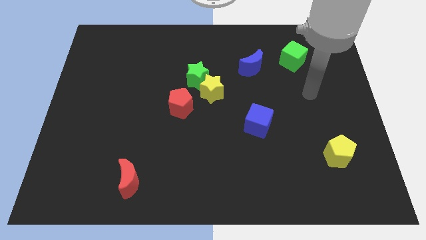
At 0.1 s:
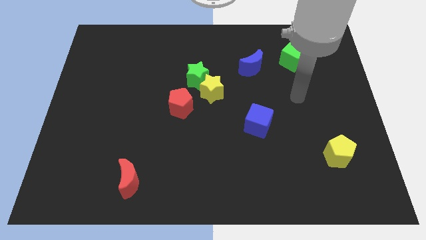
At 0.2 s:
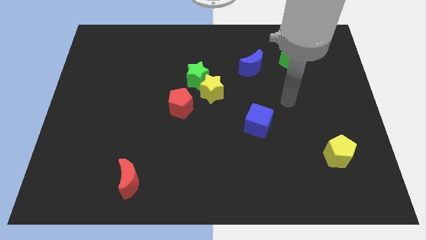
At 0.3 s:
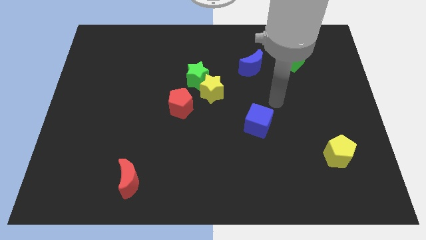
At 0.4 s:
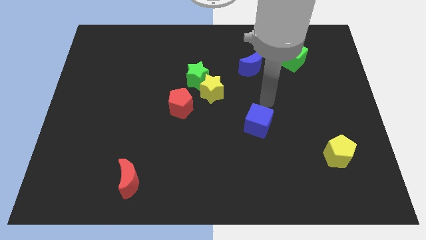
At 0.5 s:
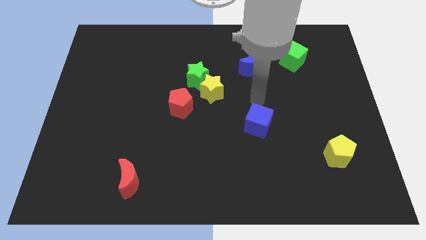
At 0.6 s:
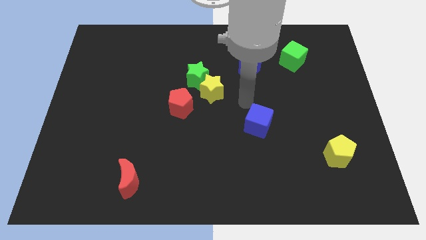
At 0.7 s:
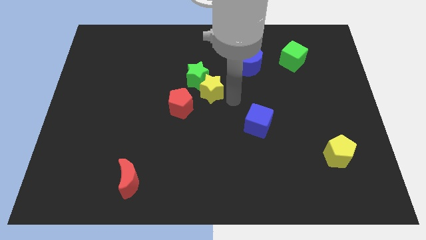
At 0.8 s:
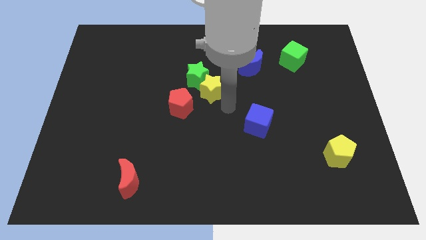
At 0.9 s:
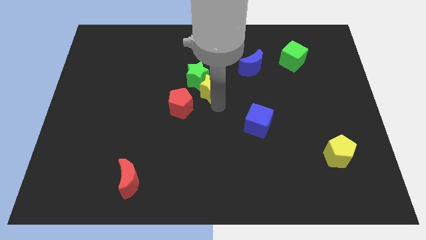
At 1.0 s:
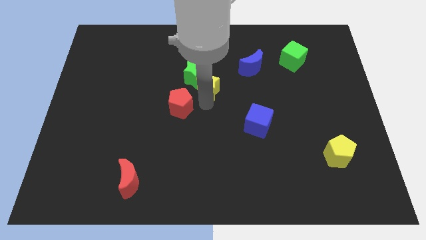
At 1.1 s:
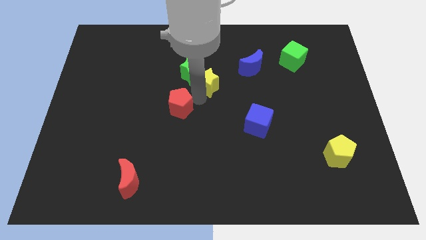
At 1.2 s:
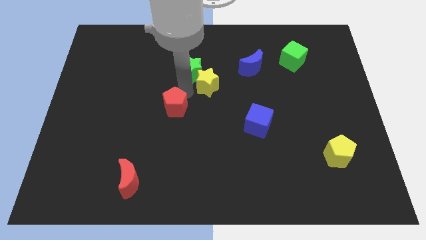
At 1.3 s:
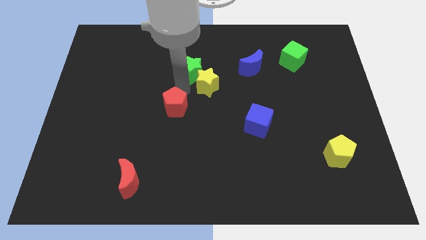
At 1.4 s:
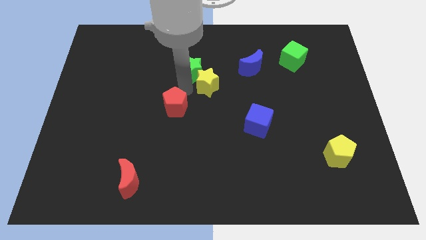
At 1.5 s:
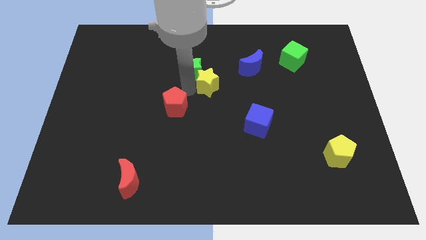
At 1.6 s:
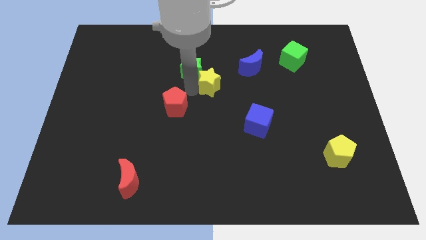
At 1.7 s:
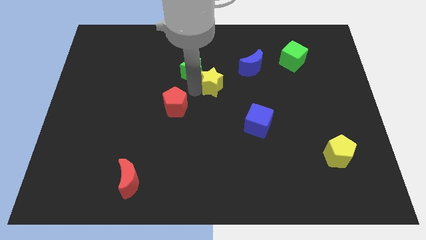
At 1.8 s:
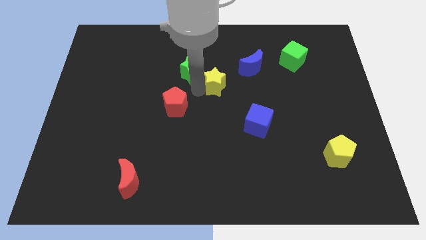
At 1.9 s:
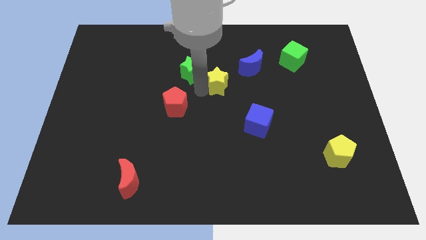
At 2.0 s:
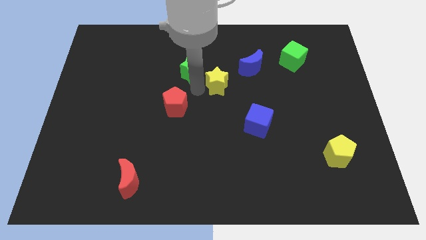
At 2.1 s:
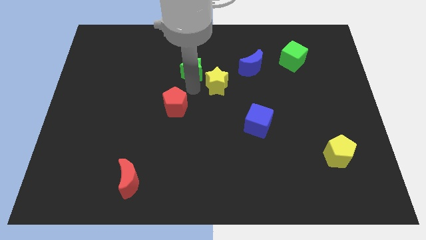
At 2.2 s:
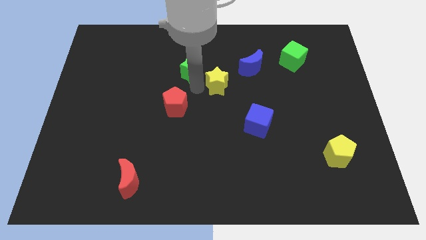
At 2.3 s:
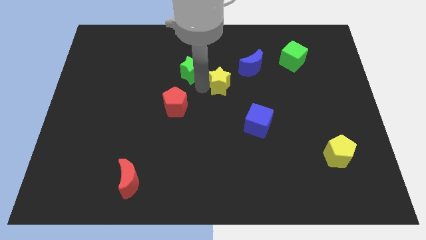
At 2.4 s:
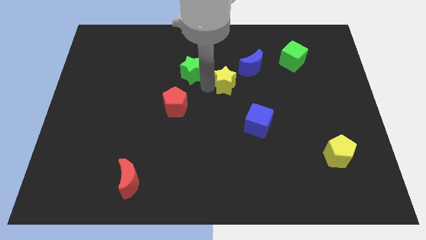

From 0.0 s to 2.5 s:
separate the yellow star from the green star and red pentagon

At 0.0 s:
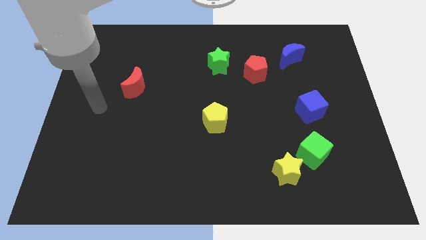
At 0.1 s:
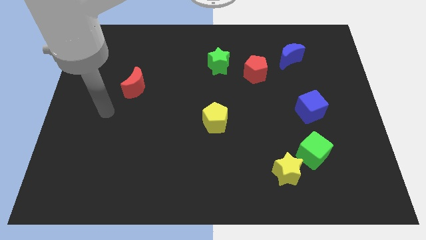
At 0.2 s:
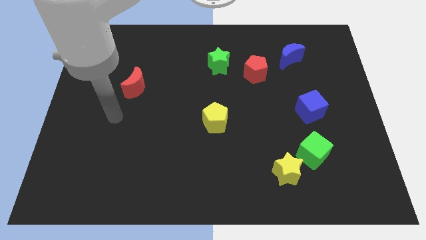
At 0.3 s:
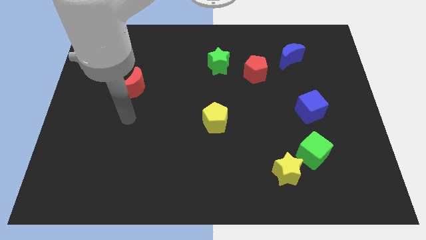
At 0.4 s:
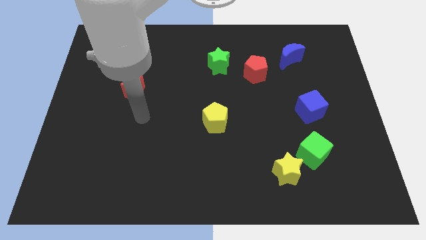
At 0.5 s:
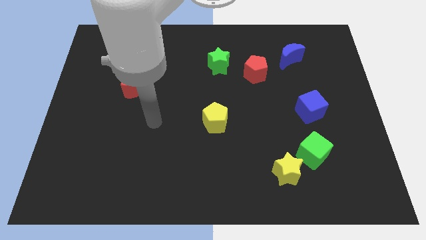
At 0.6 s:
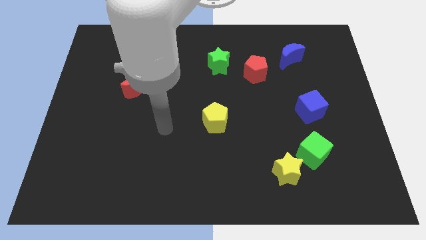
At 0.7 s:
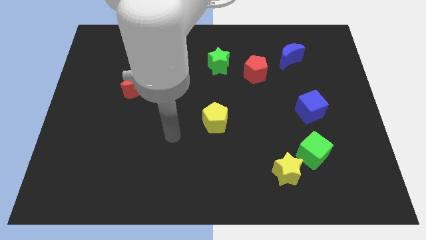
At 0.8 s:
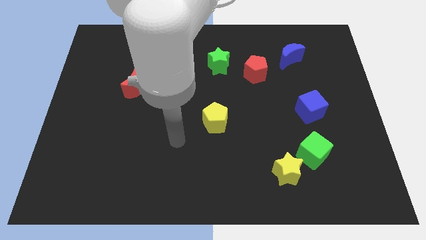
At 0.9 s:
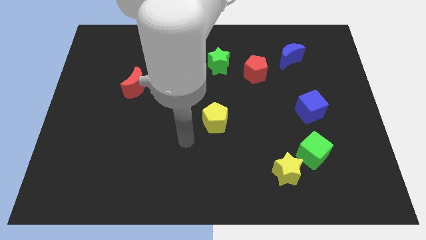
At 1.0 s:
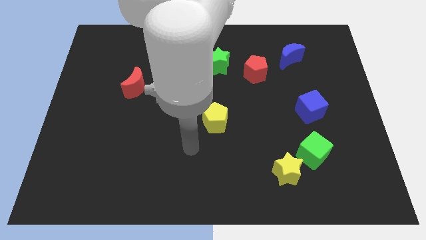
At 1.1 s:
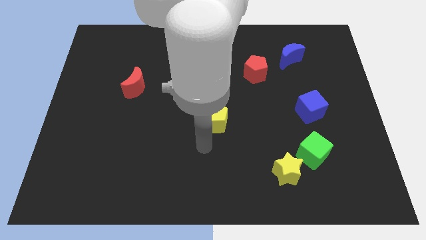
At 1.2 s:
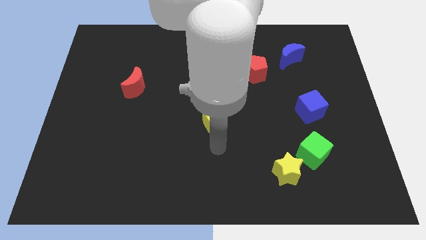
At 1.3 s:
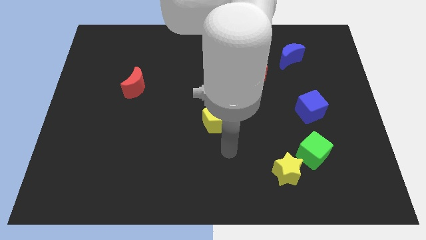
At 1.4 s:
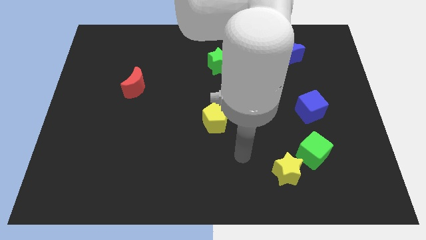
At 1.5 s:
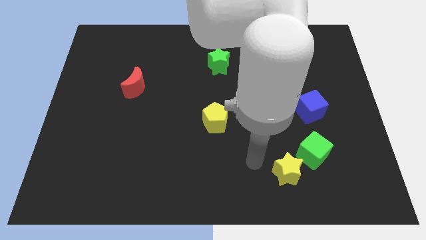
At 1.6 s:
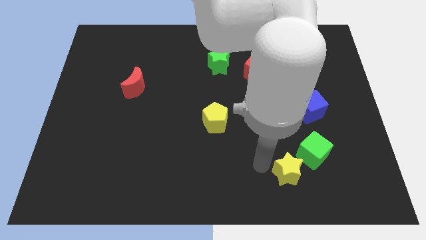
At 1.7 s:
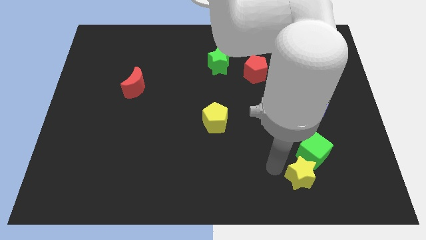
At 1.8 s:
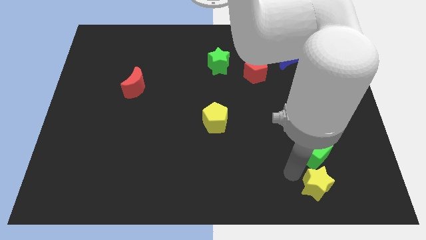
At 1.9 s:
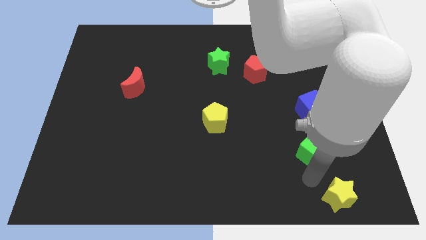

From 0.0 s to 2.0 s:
separate the green cube from the yellow star

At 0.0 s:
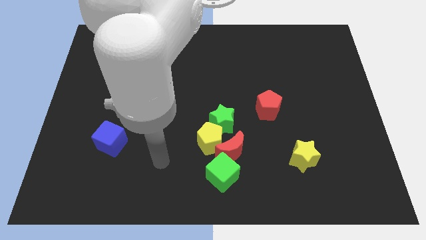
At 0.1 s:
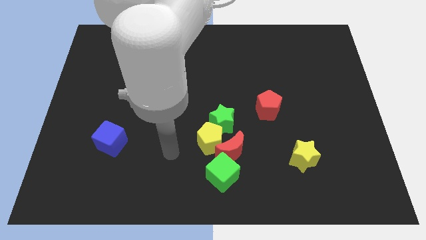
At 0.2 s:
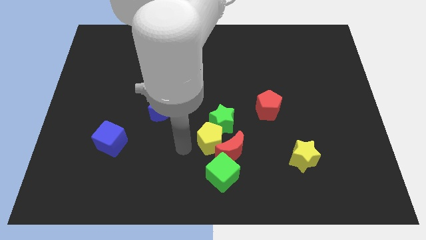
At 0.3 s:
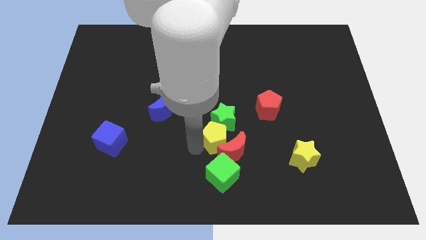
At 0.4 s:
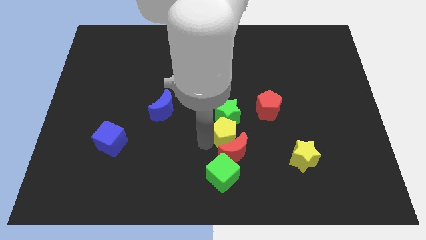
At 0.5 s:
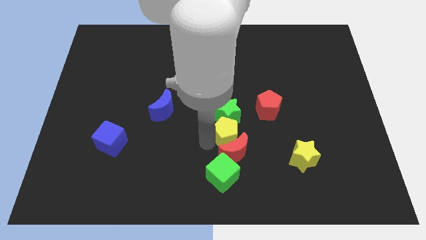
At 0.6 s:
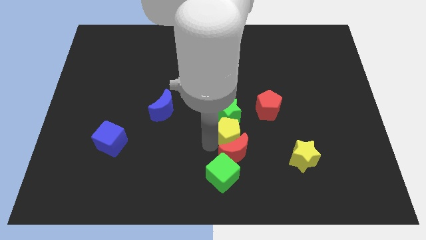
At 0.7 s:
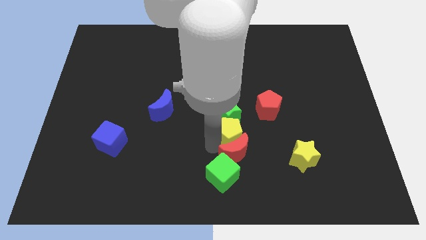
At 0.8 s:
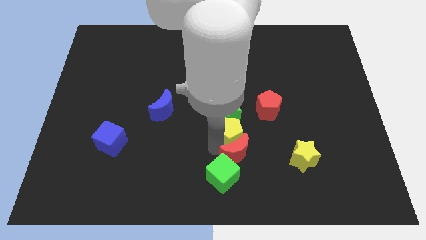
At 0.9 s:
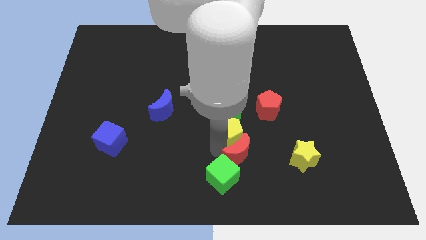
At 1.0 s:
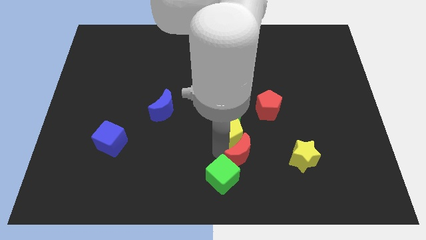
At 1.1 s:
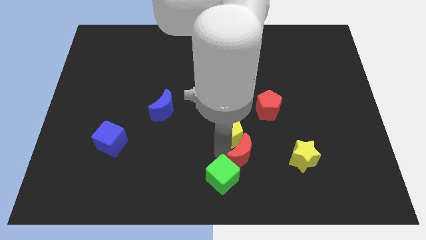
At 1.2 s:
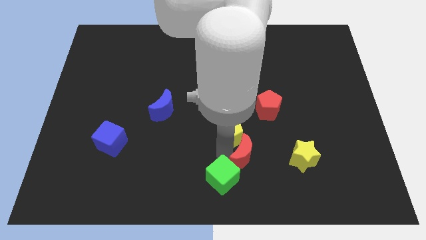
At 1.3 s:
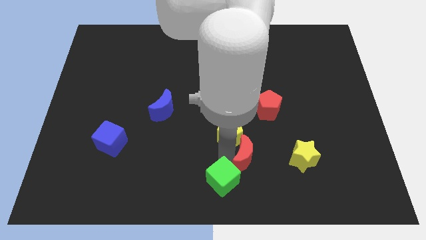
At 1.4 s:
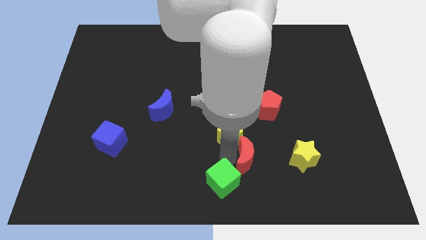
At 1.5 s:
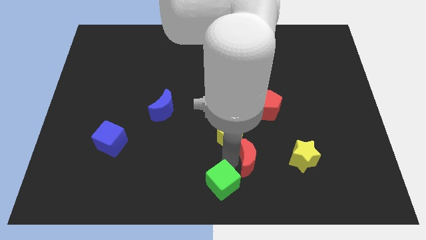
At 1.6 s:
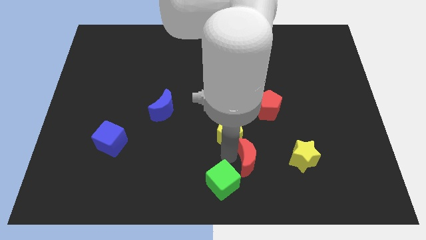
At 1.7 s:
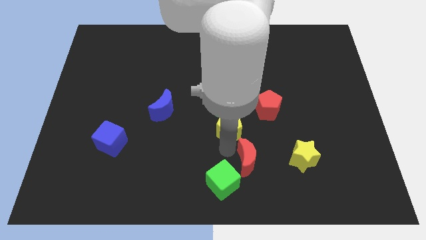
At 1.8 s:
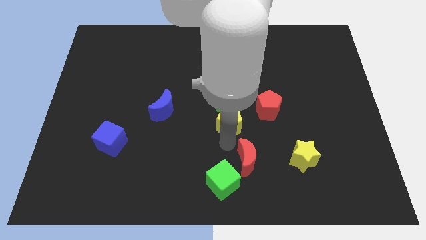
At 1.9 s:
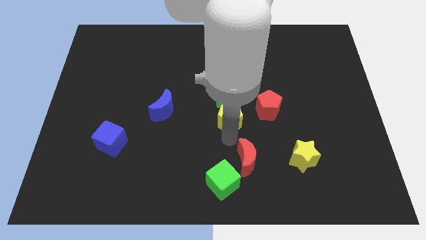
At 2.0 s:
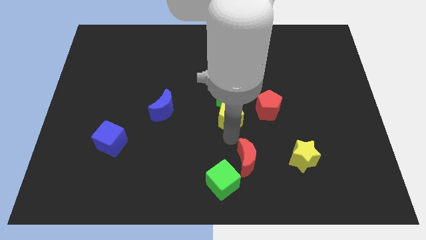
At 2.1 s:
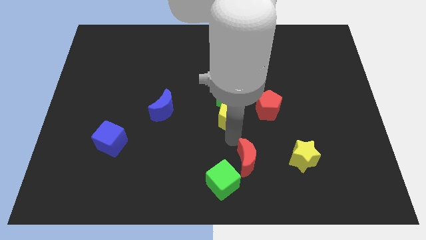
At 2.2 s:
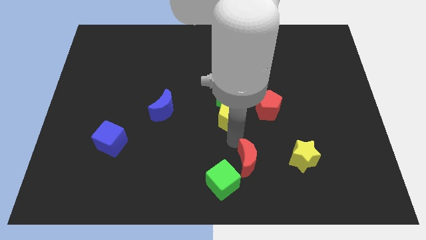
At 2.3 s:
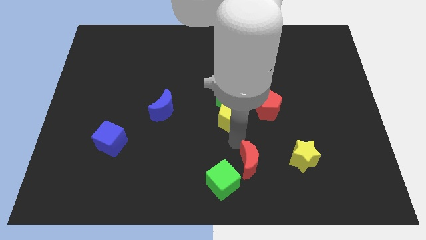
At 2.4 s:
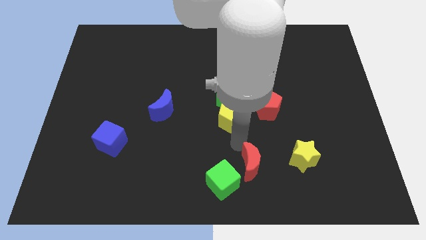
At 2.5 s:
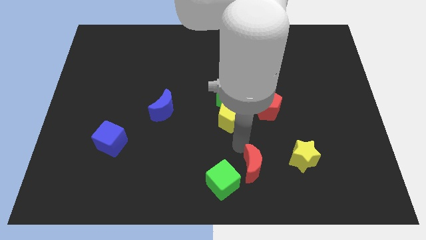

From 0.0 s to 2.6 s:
separate the red moon from the yellow pentagon, green cube, and green star

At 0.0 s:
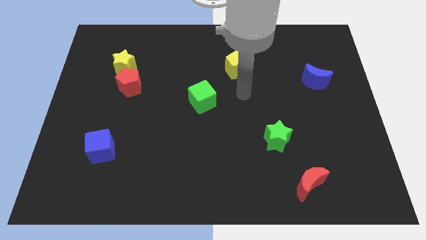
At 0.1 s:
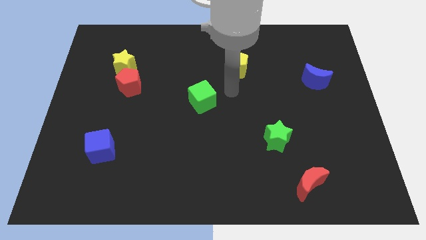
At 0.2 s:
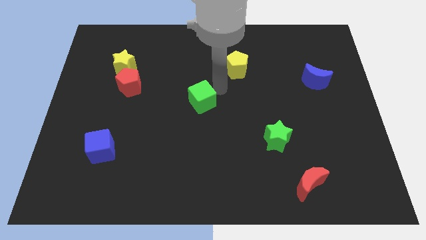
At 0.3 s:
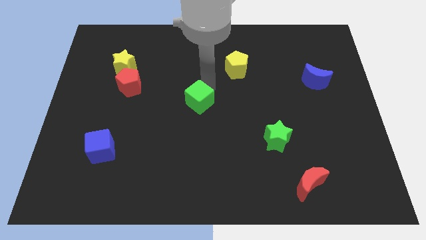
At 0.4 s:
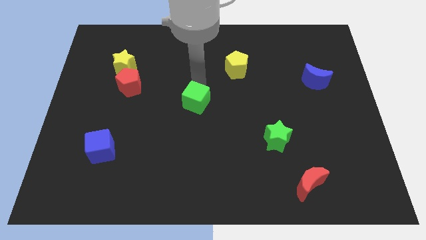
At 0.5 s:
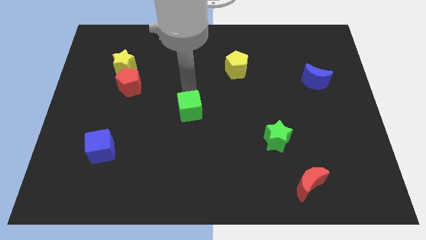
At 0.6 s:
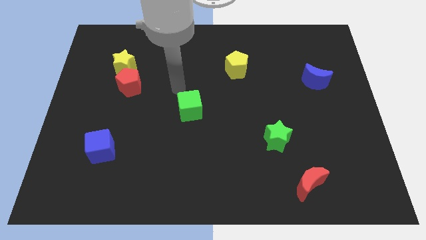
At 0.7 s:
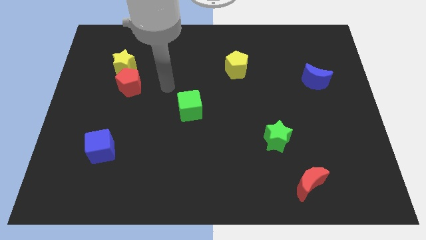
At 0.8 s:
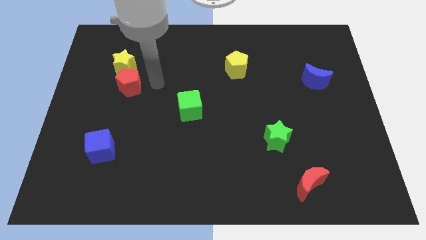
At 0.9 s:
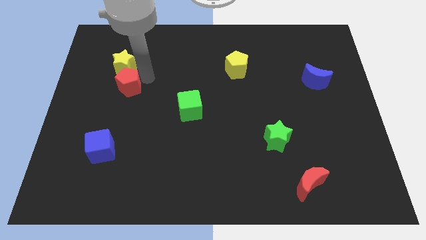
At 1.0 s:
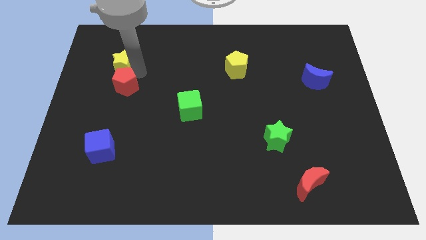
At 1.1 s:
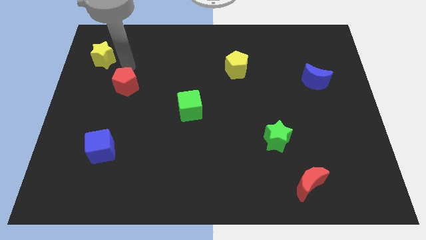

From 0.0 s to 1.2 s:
pull the red pentagon apart from the yellow star

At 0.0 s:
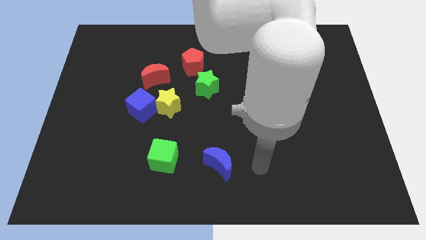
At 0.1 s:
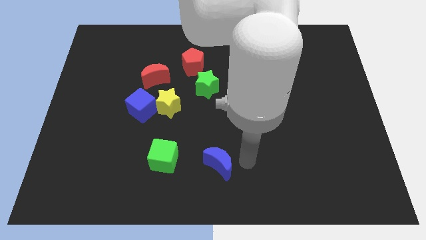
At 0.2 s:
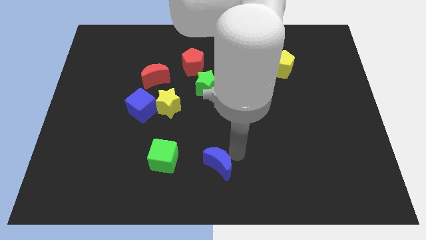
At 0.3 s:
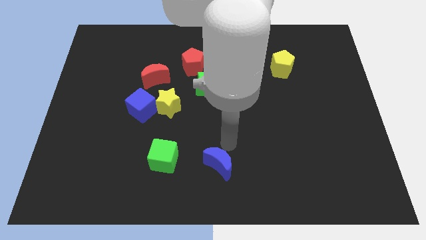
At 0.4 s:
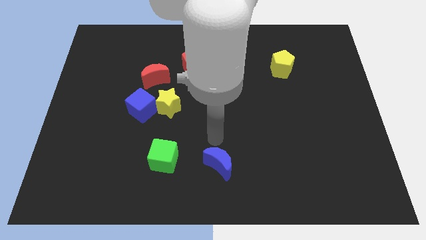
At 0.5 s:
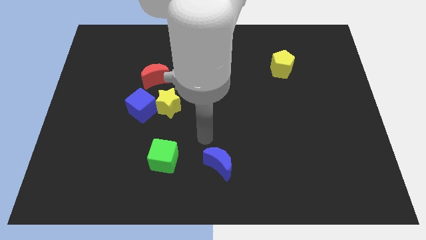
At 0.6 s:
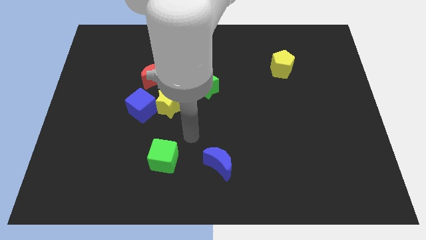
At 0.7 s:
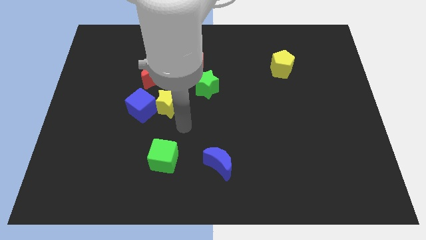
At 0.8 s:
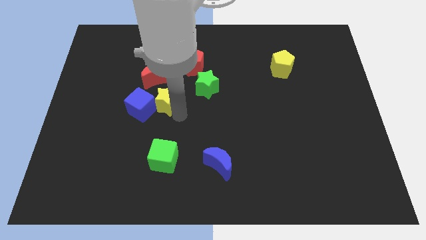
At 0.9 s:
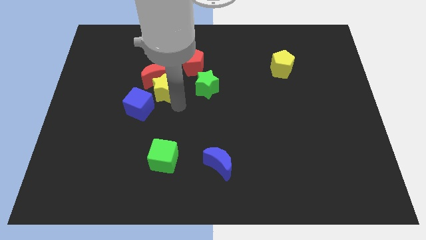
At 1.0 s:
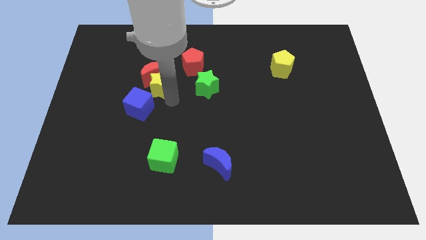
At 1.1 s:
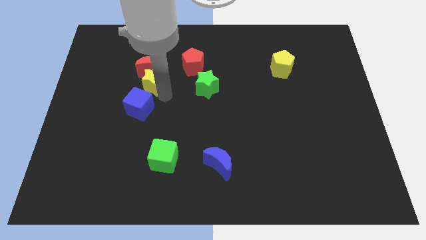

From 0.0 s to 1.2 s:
pull the blue cube apart from the yellow star and red moon
